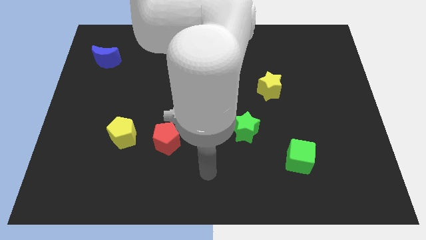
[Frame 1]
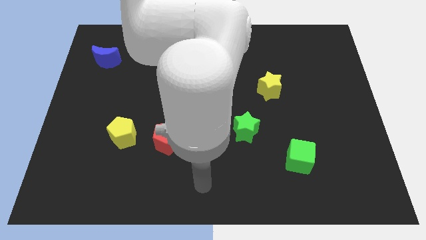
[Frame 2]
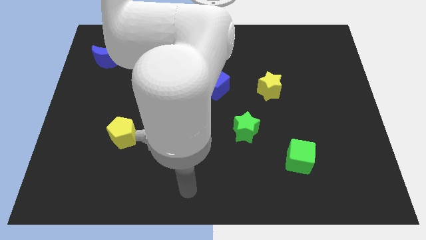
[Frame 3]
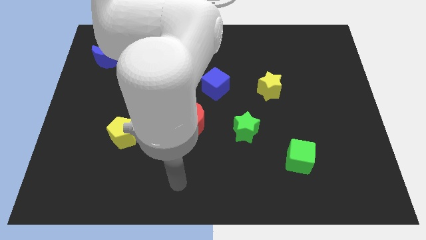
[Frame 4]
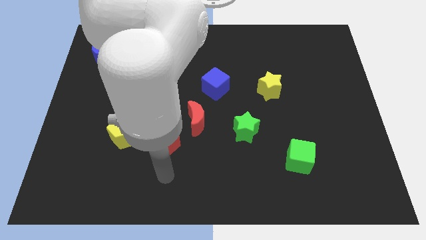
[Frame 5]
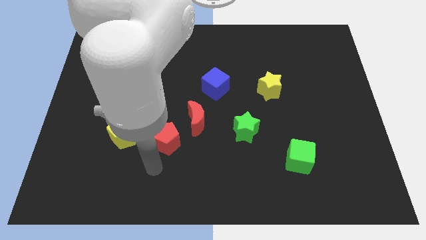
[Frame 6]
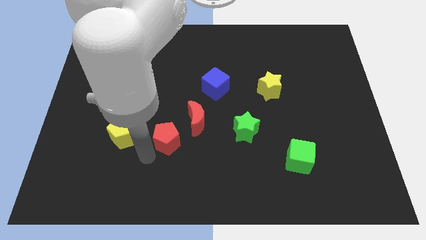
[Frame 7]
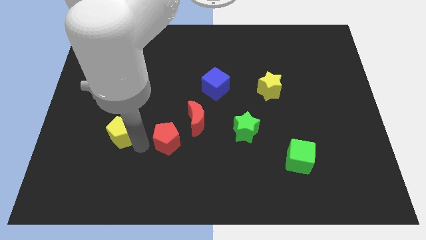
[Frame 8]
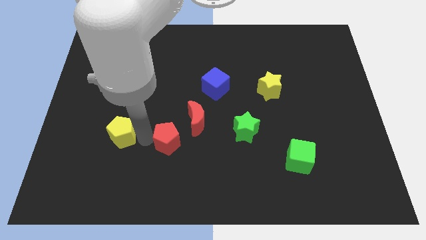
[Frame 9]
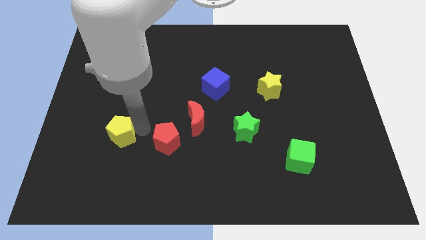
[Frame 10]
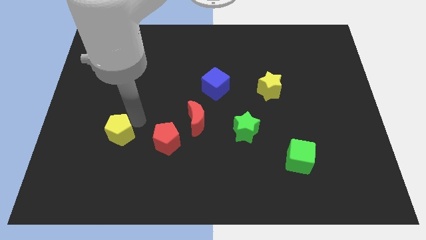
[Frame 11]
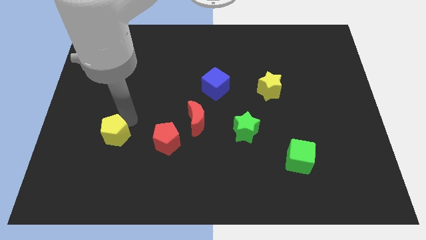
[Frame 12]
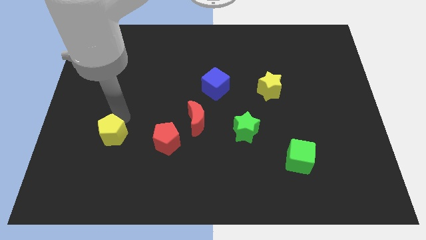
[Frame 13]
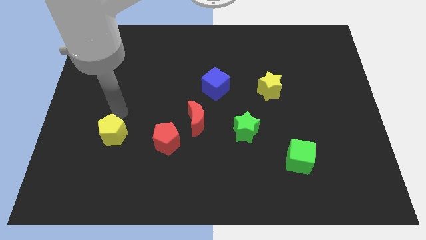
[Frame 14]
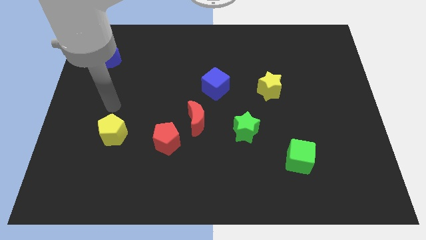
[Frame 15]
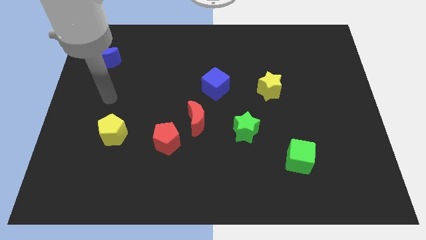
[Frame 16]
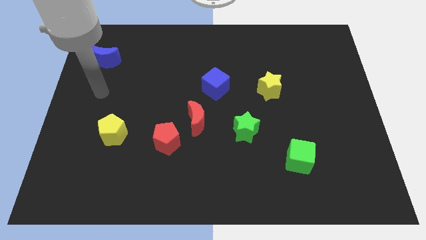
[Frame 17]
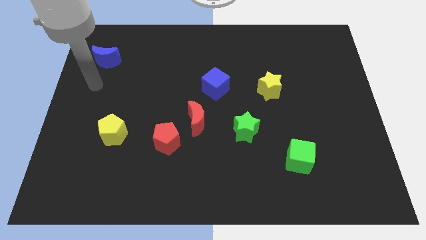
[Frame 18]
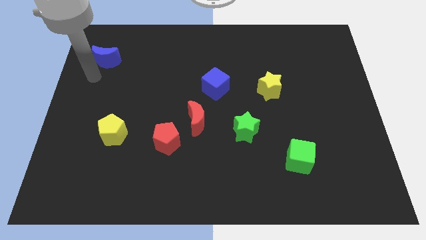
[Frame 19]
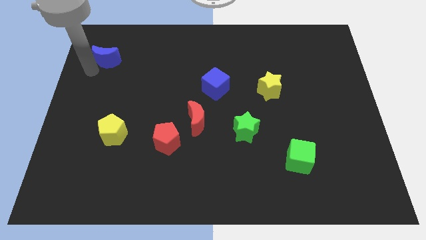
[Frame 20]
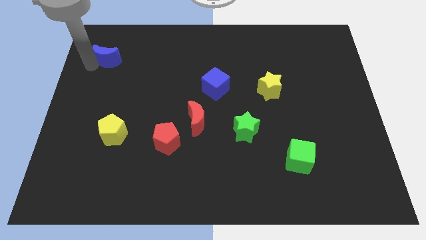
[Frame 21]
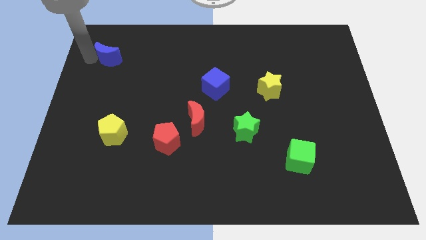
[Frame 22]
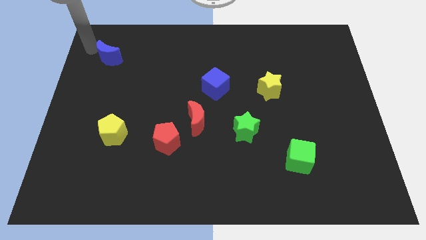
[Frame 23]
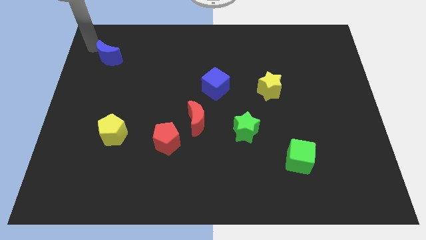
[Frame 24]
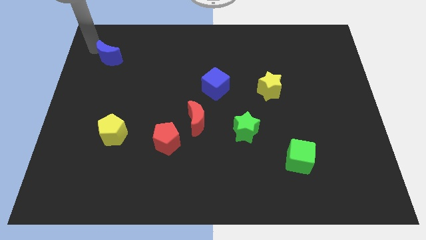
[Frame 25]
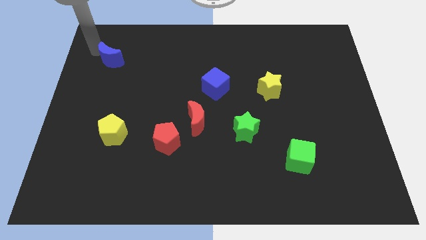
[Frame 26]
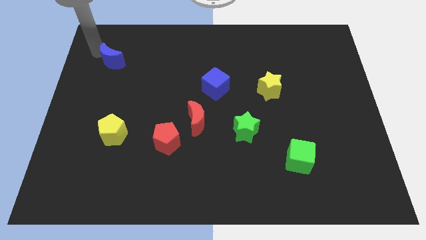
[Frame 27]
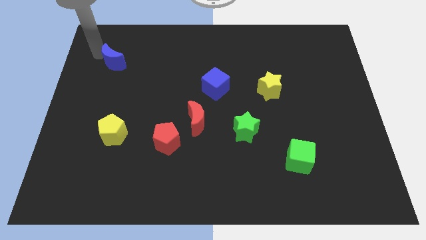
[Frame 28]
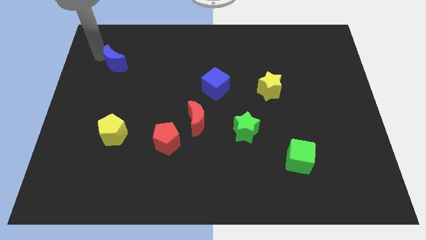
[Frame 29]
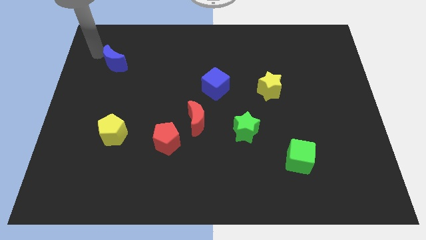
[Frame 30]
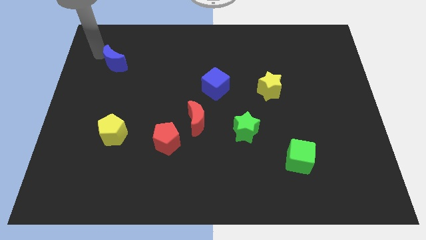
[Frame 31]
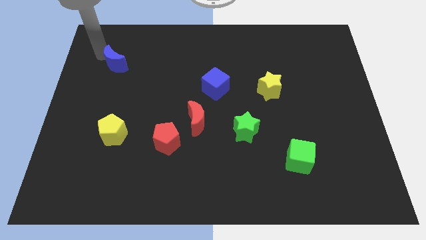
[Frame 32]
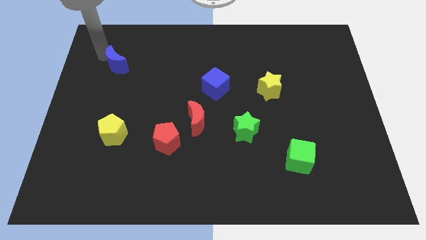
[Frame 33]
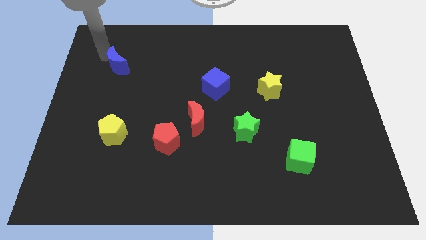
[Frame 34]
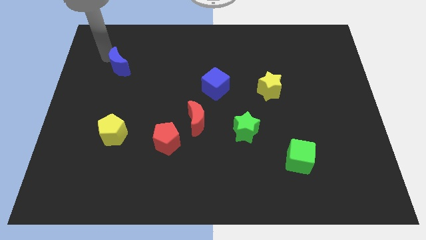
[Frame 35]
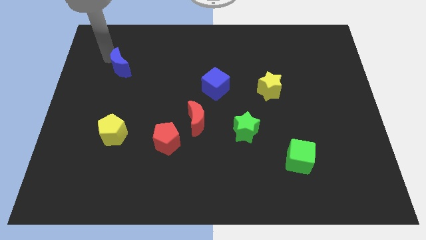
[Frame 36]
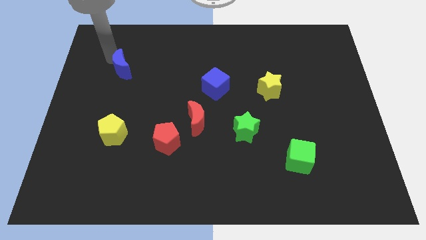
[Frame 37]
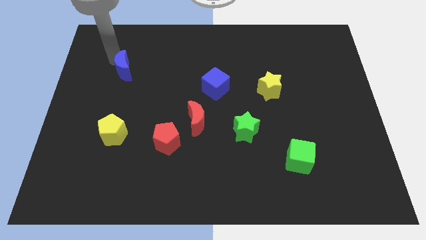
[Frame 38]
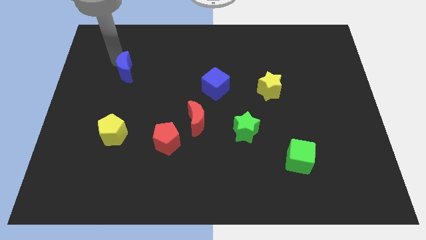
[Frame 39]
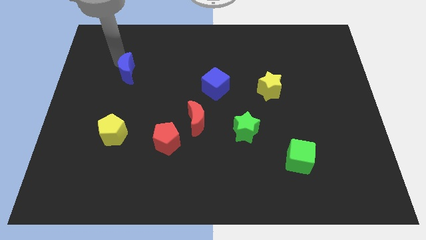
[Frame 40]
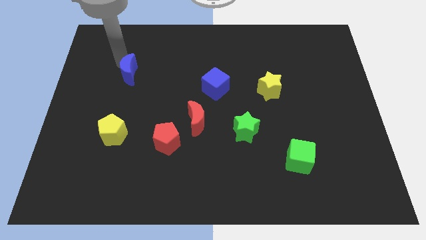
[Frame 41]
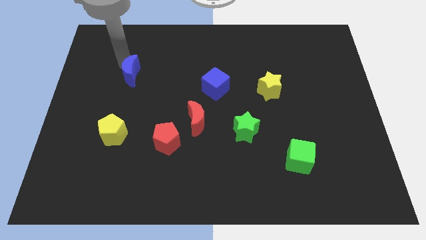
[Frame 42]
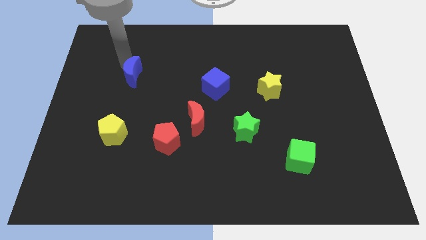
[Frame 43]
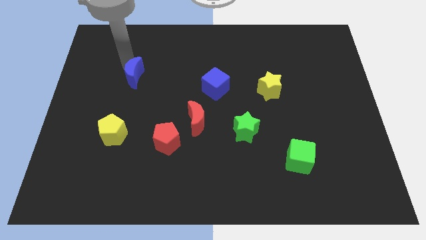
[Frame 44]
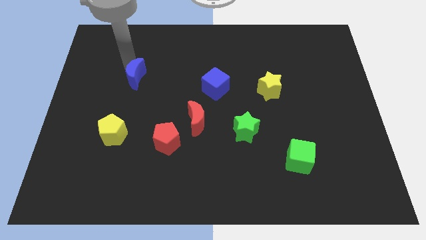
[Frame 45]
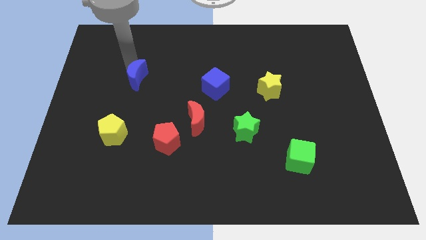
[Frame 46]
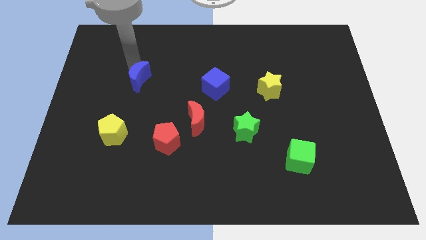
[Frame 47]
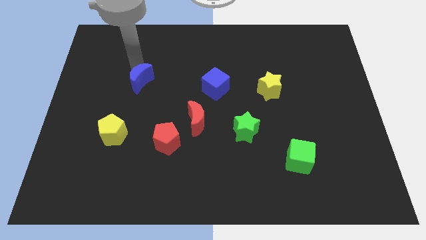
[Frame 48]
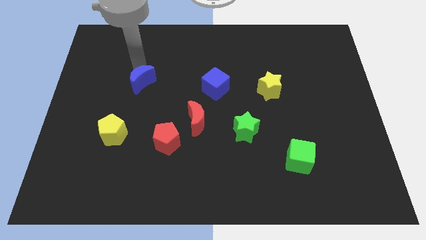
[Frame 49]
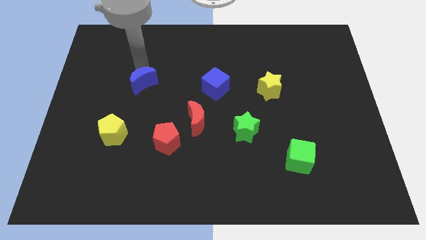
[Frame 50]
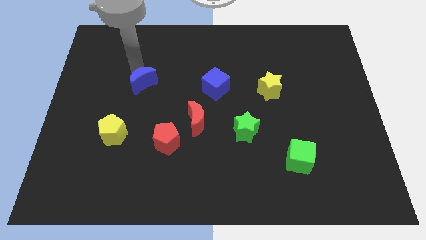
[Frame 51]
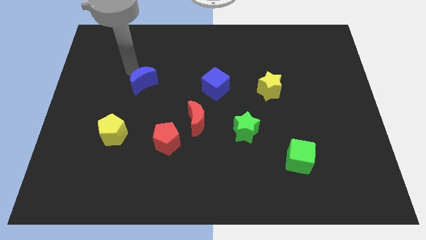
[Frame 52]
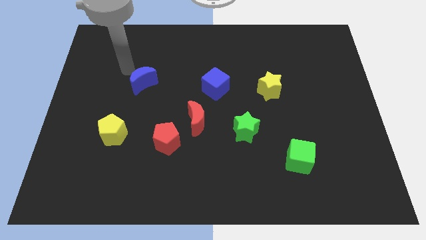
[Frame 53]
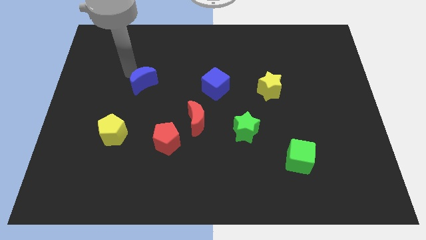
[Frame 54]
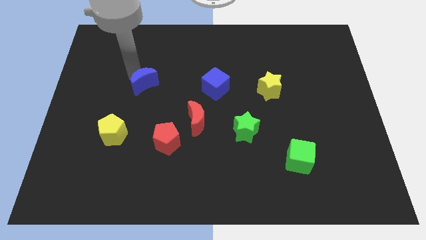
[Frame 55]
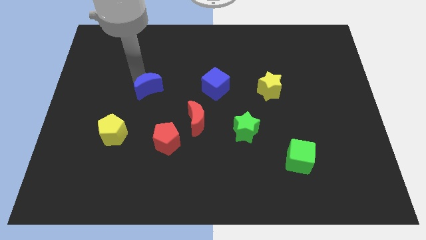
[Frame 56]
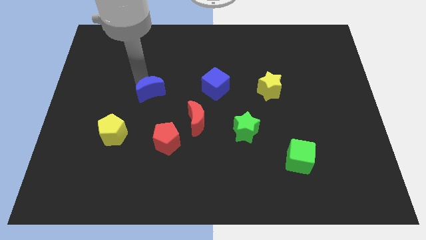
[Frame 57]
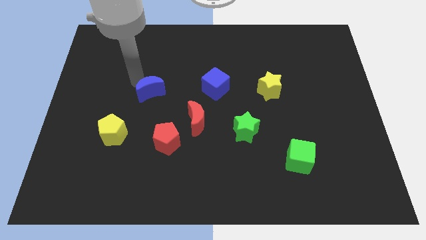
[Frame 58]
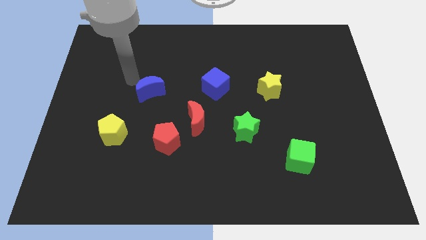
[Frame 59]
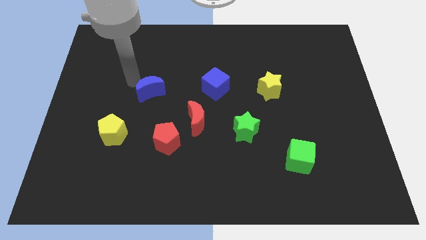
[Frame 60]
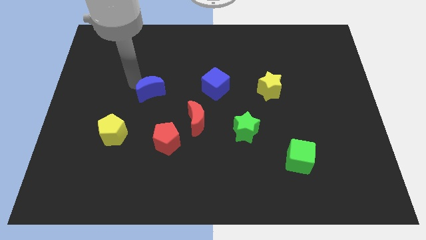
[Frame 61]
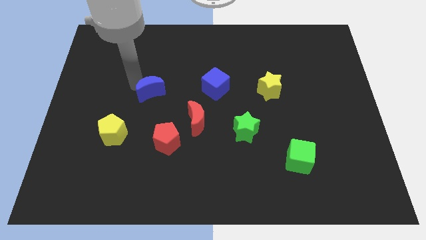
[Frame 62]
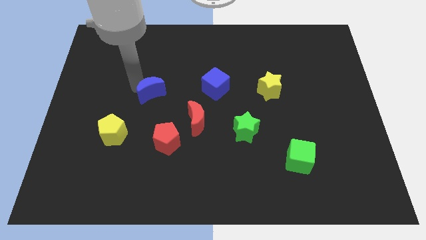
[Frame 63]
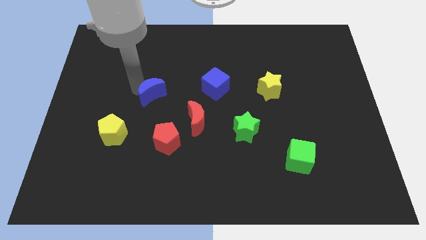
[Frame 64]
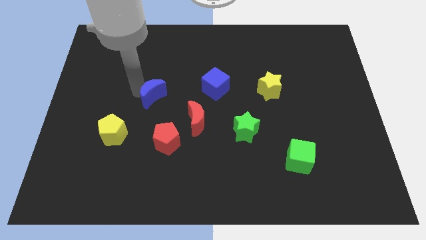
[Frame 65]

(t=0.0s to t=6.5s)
slide the blue moon to the top side of the red pentagon
